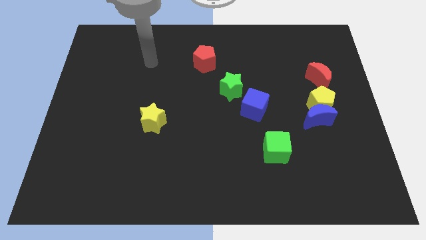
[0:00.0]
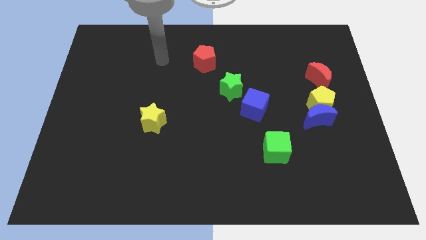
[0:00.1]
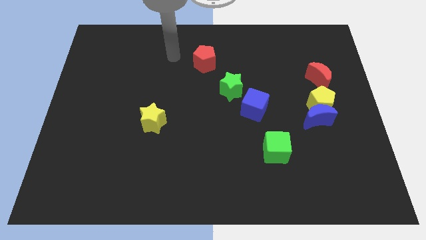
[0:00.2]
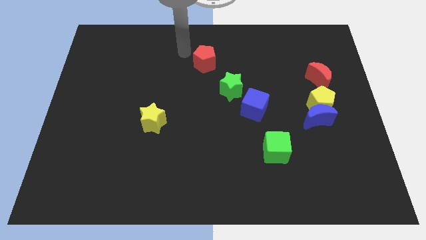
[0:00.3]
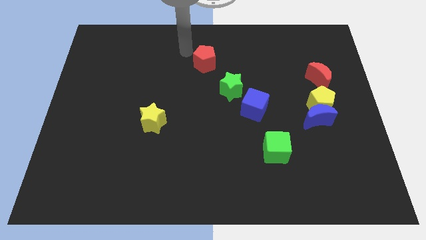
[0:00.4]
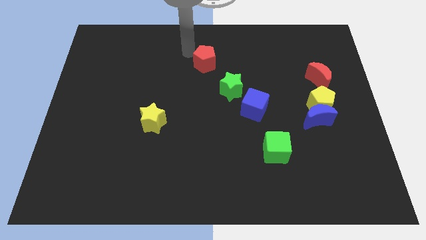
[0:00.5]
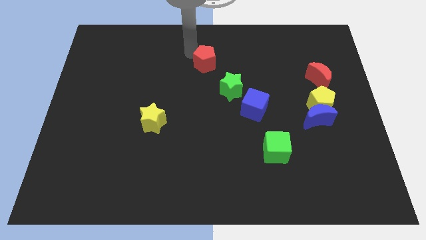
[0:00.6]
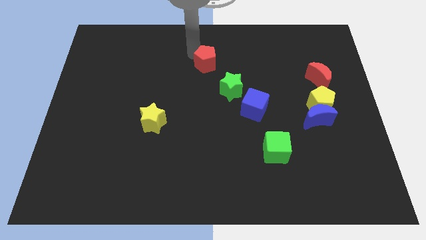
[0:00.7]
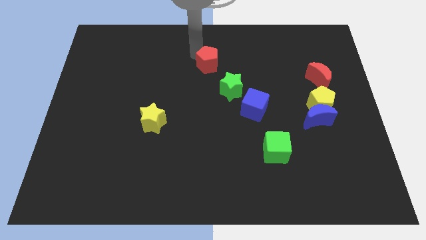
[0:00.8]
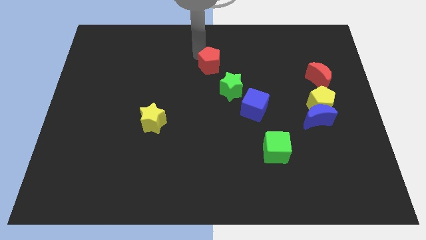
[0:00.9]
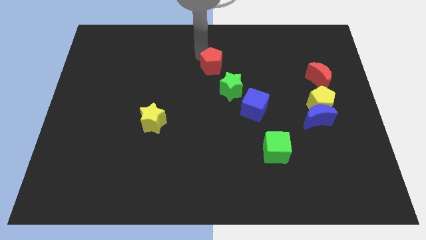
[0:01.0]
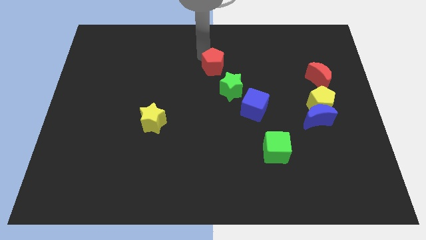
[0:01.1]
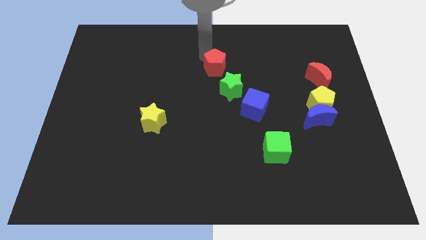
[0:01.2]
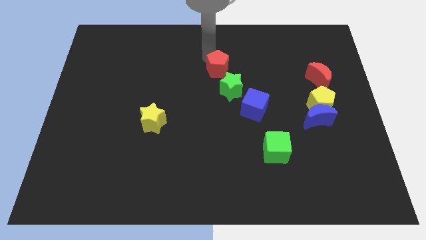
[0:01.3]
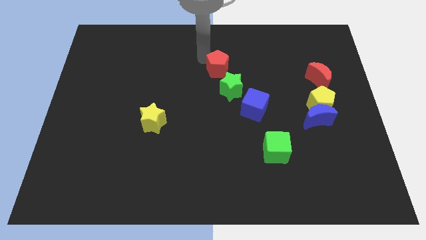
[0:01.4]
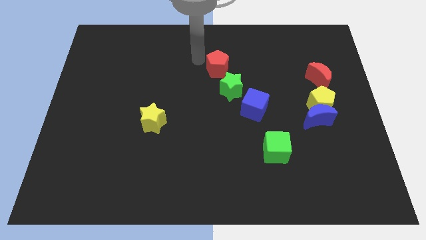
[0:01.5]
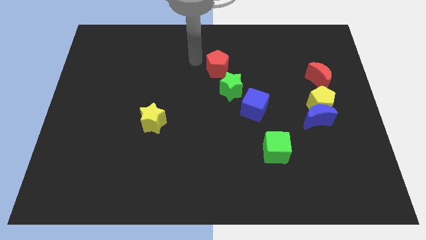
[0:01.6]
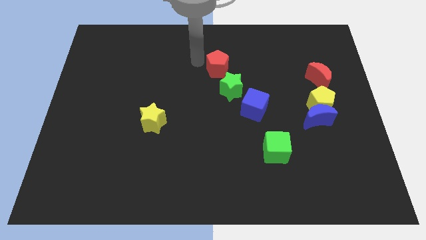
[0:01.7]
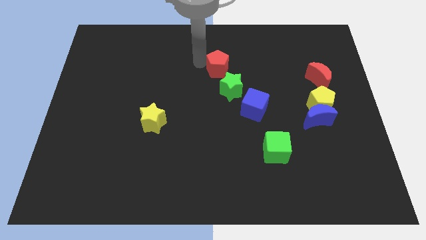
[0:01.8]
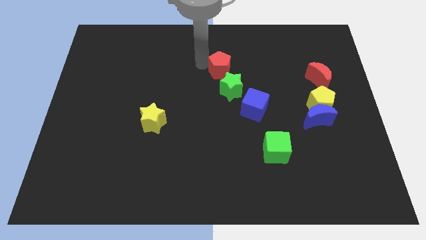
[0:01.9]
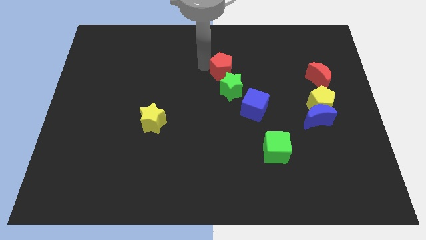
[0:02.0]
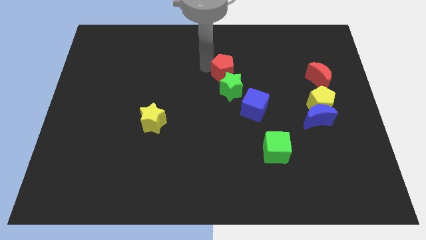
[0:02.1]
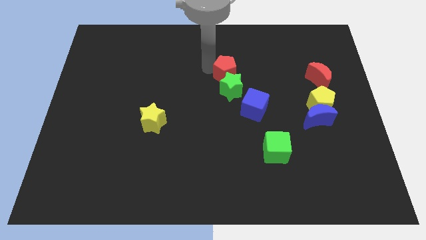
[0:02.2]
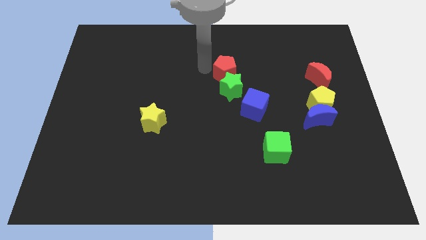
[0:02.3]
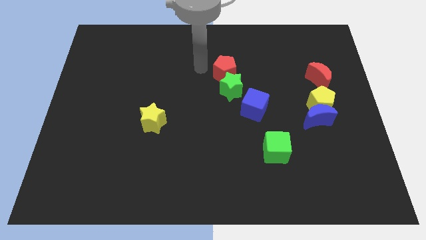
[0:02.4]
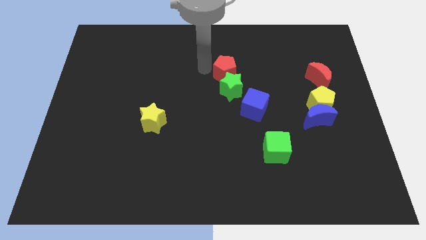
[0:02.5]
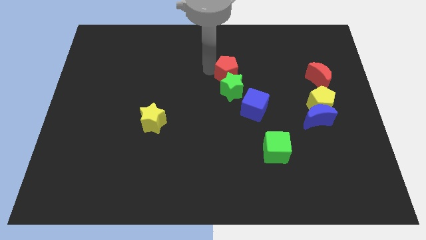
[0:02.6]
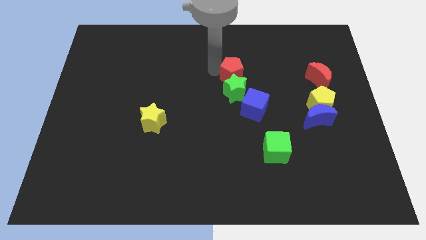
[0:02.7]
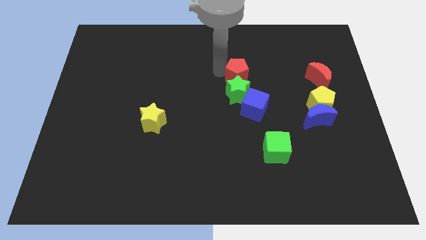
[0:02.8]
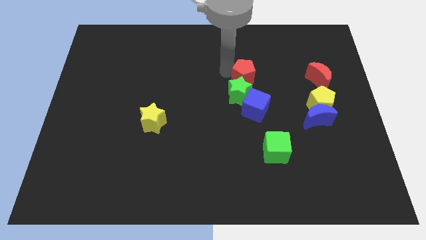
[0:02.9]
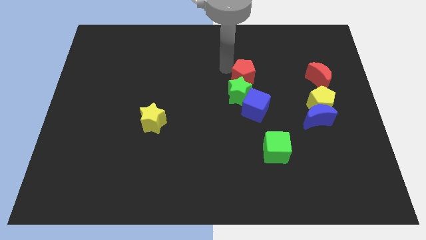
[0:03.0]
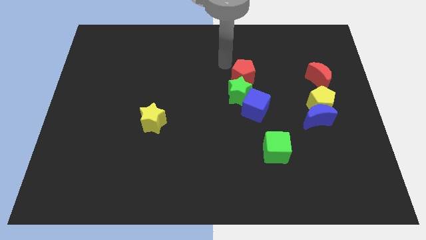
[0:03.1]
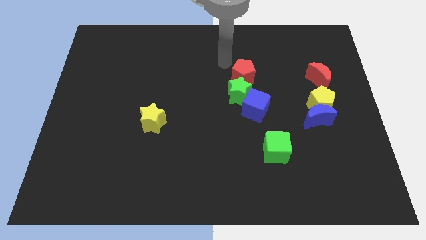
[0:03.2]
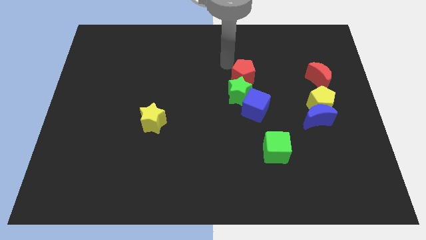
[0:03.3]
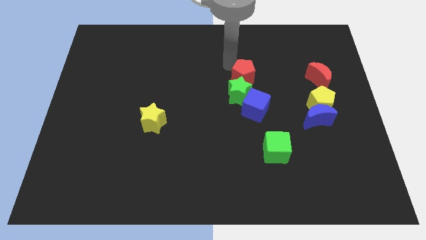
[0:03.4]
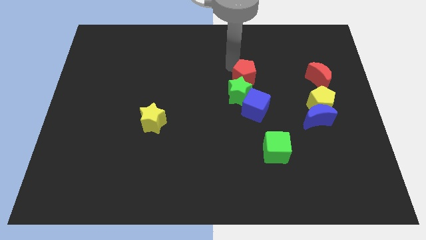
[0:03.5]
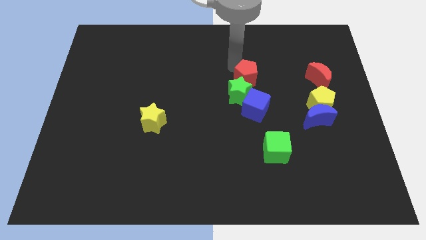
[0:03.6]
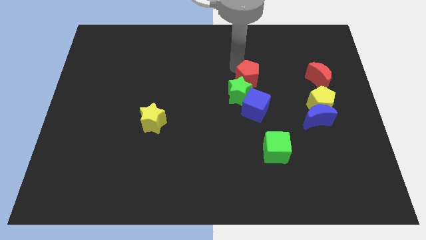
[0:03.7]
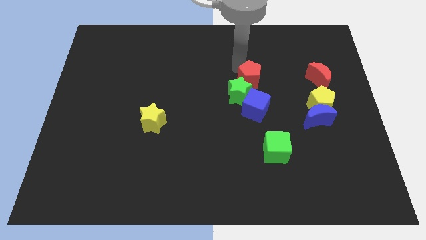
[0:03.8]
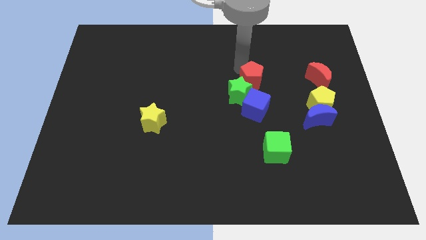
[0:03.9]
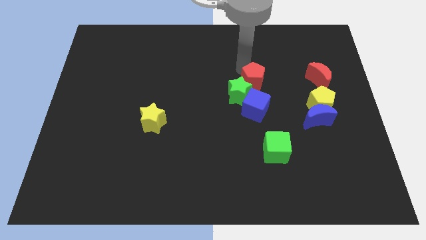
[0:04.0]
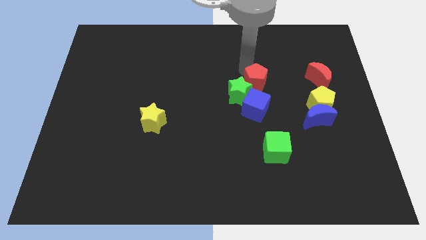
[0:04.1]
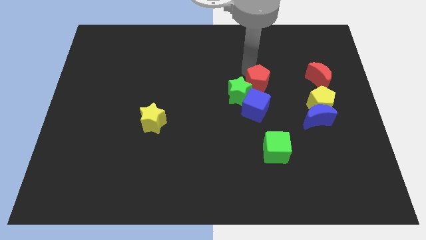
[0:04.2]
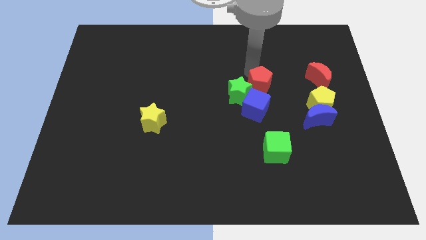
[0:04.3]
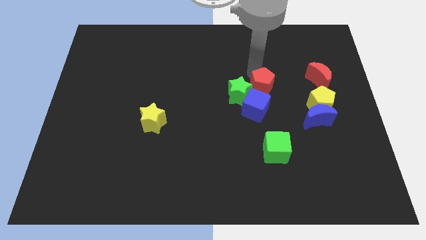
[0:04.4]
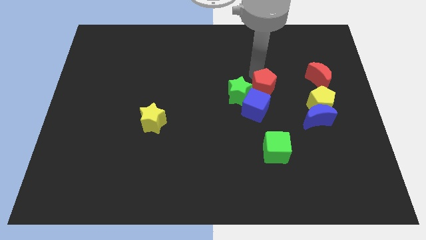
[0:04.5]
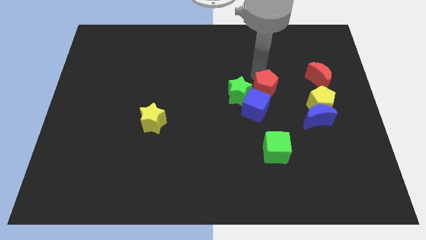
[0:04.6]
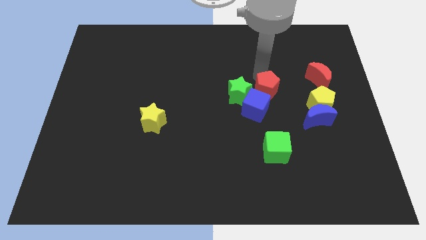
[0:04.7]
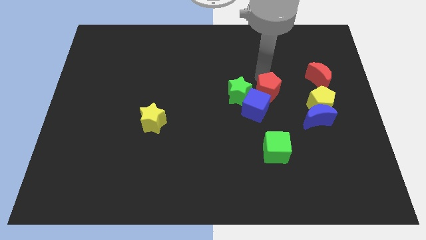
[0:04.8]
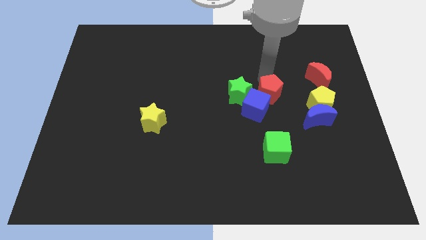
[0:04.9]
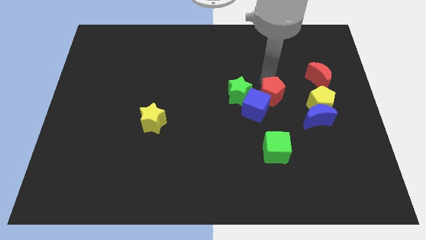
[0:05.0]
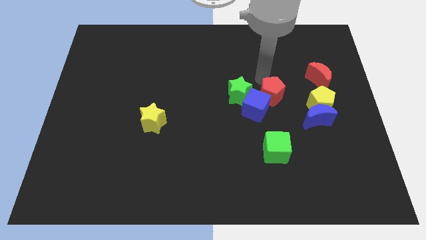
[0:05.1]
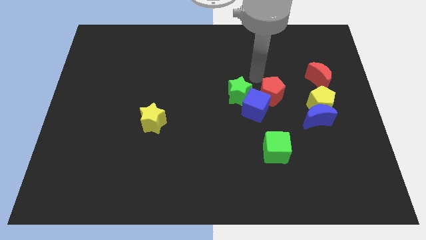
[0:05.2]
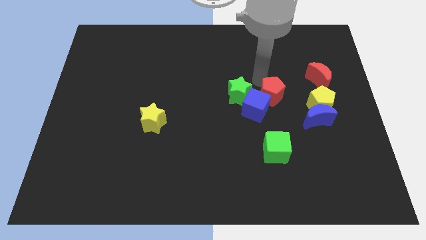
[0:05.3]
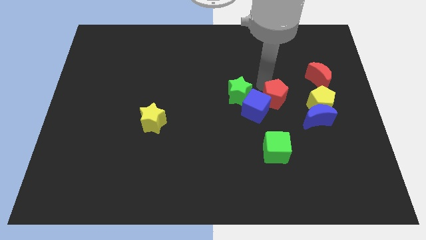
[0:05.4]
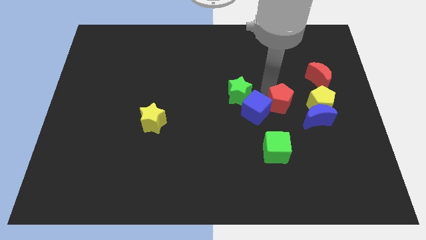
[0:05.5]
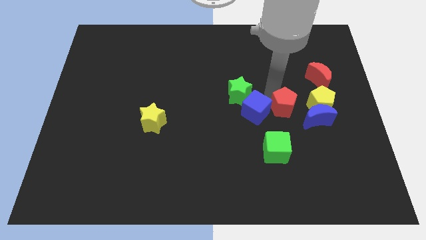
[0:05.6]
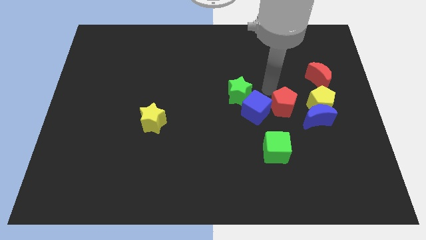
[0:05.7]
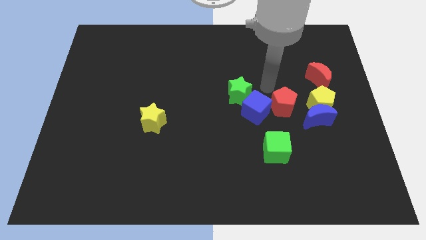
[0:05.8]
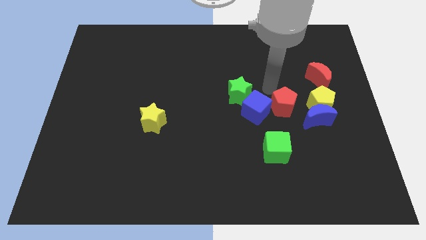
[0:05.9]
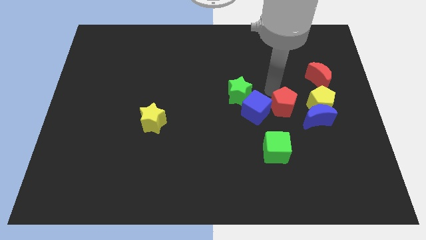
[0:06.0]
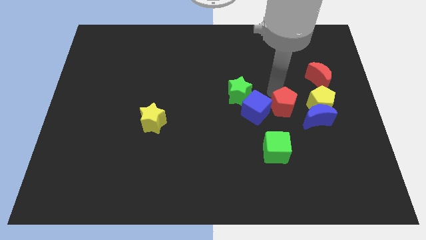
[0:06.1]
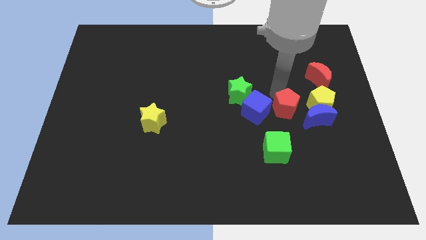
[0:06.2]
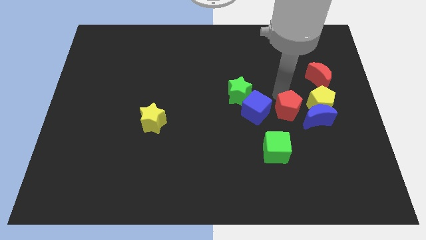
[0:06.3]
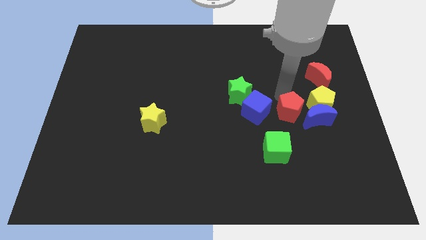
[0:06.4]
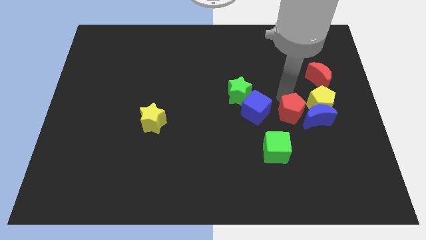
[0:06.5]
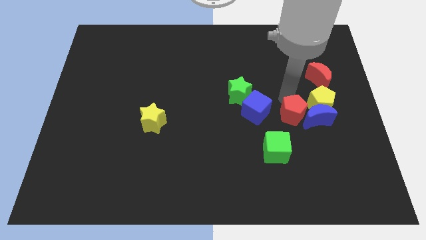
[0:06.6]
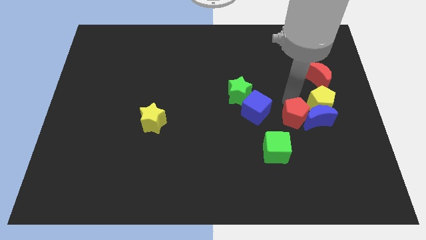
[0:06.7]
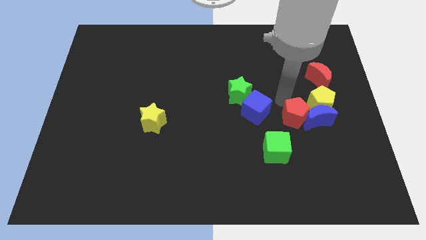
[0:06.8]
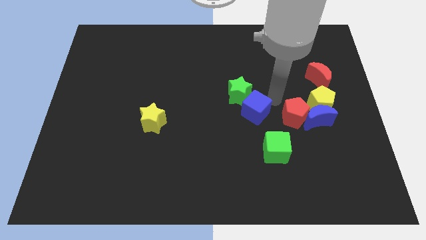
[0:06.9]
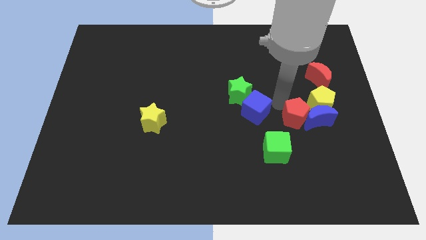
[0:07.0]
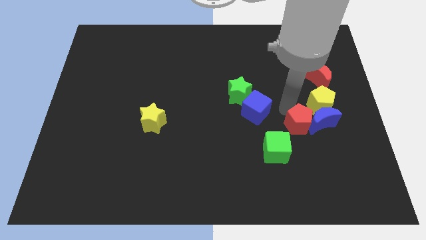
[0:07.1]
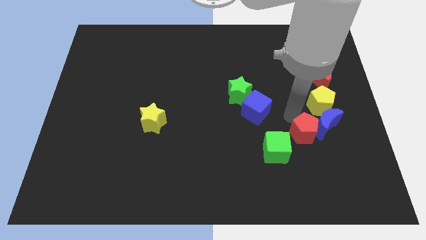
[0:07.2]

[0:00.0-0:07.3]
put the red pentagon to the bottom of the yellow pentagon

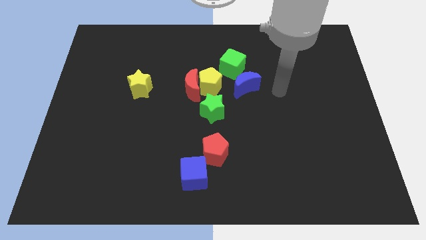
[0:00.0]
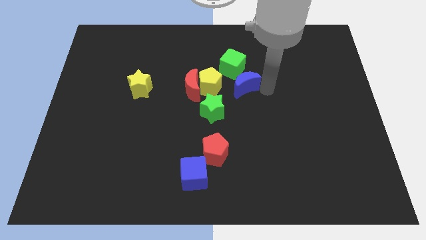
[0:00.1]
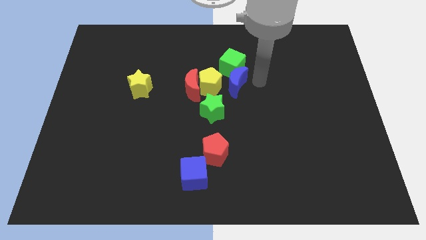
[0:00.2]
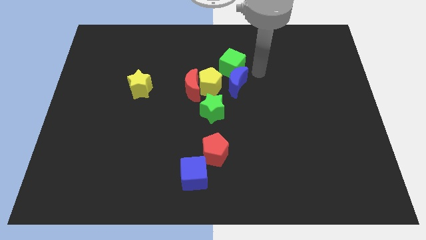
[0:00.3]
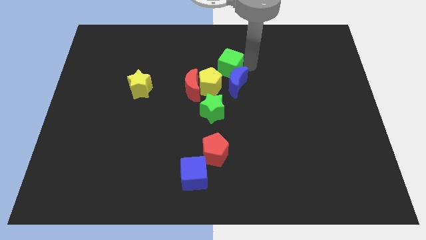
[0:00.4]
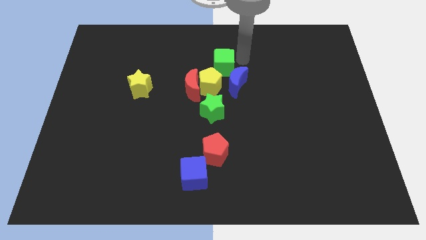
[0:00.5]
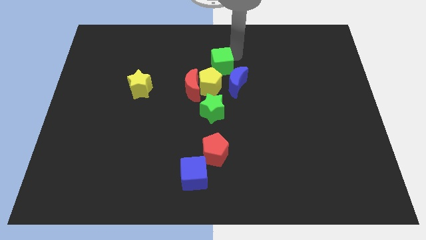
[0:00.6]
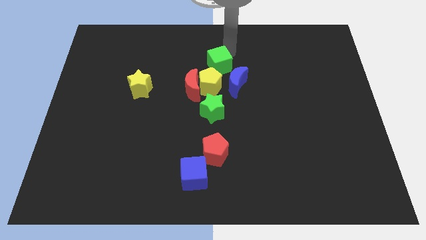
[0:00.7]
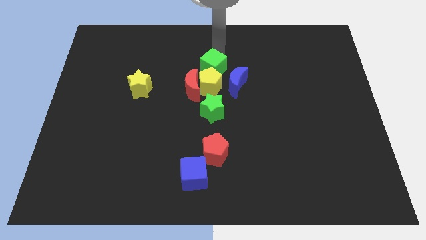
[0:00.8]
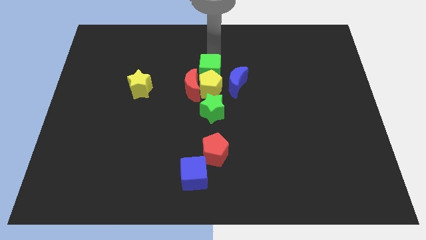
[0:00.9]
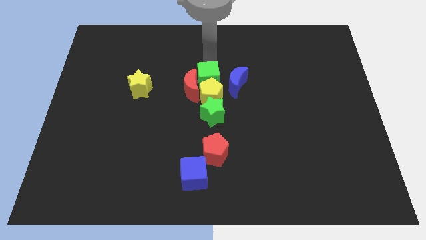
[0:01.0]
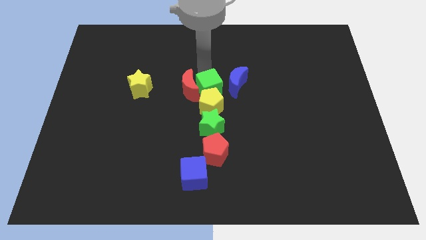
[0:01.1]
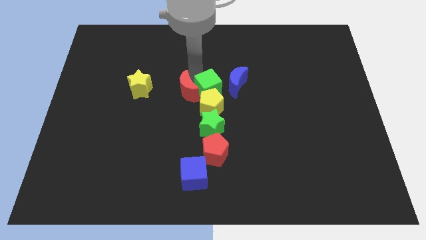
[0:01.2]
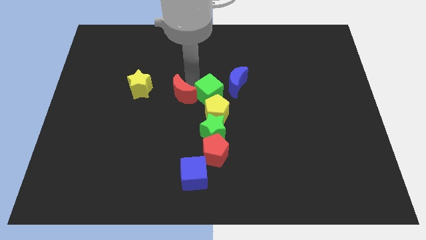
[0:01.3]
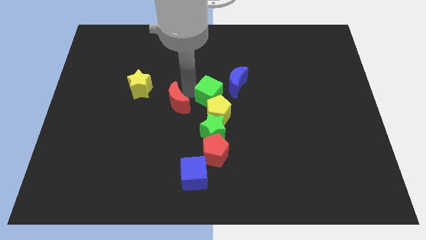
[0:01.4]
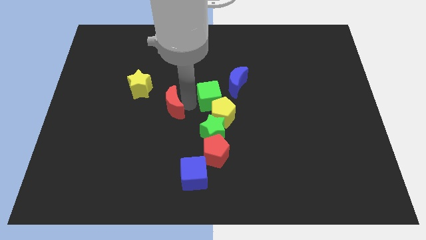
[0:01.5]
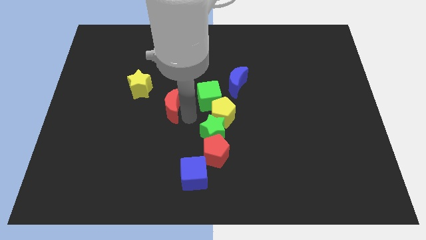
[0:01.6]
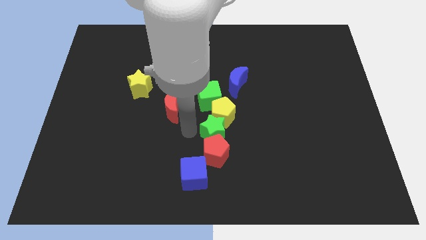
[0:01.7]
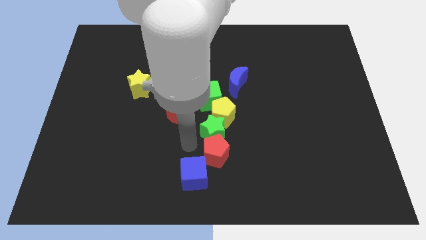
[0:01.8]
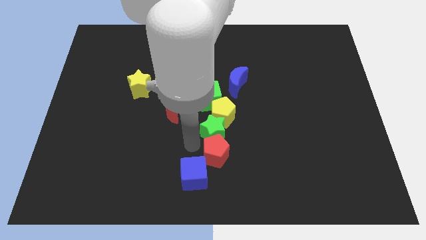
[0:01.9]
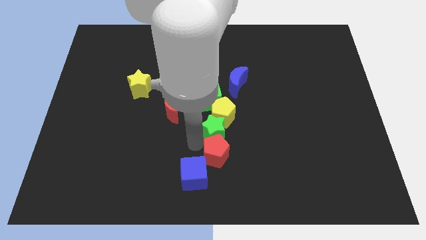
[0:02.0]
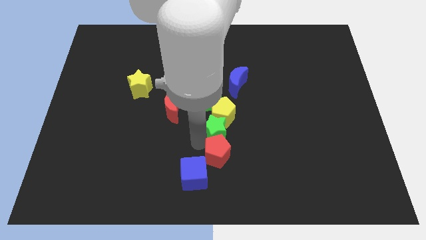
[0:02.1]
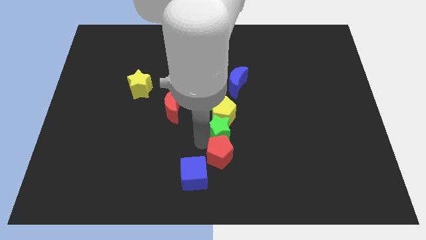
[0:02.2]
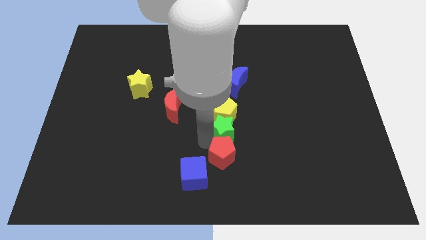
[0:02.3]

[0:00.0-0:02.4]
put the green star to the bottom of the blue moon
